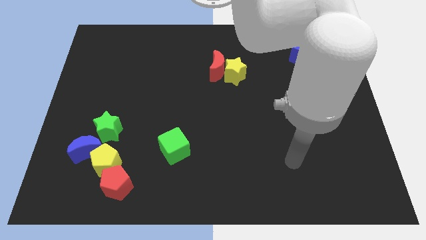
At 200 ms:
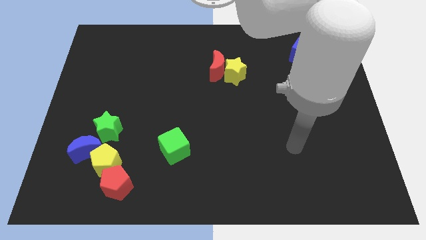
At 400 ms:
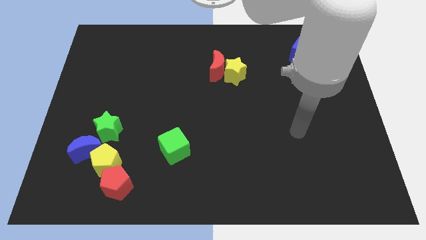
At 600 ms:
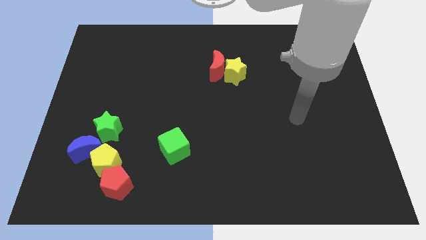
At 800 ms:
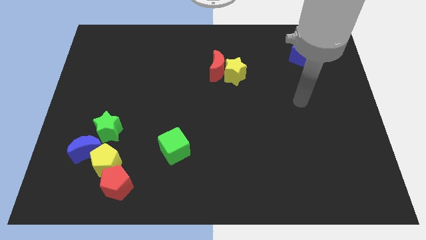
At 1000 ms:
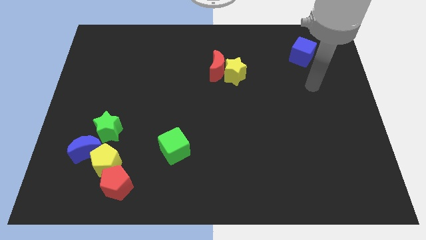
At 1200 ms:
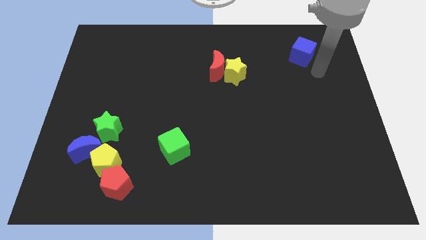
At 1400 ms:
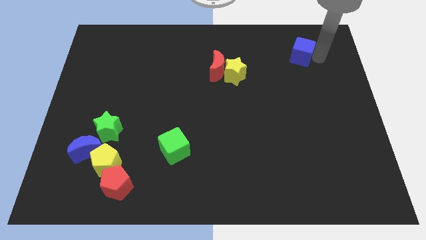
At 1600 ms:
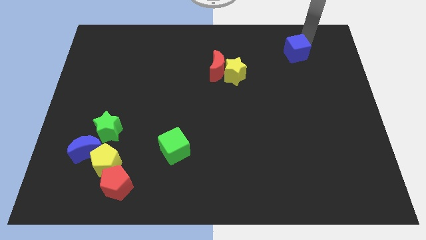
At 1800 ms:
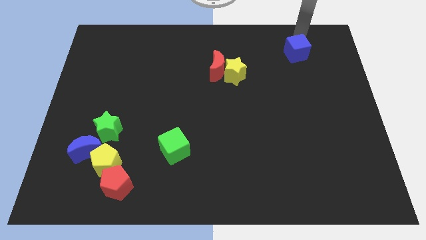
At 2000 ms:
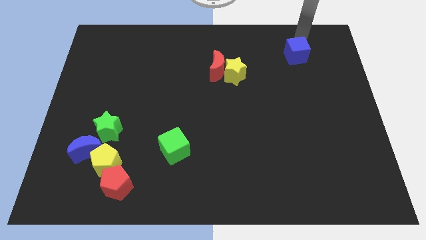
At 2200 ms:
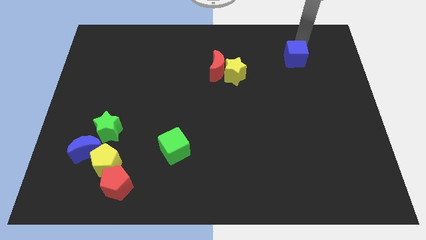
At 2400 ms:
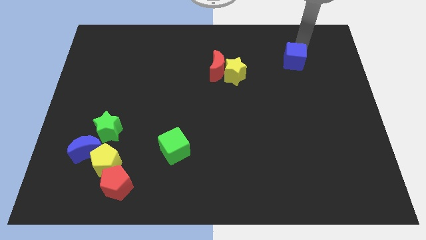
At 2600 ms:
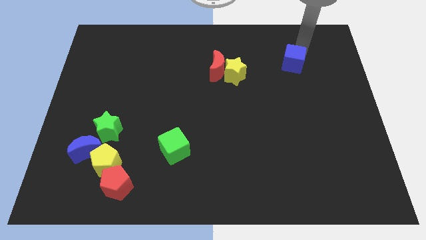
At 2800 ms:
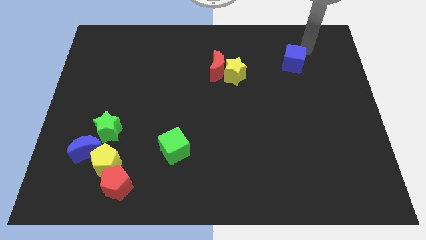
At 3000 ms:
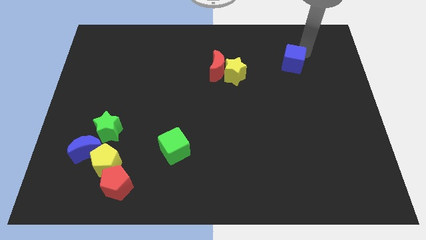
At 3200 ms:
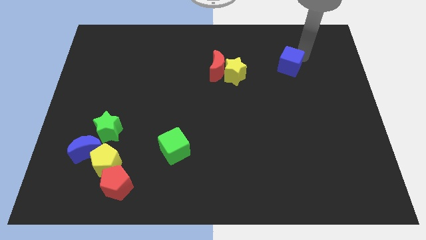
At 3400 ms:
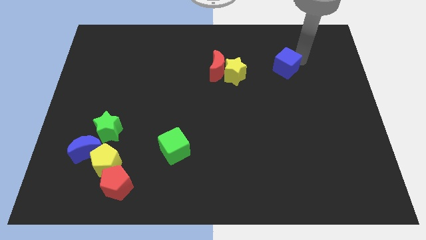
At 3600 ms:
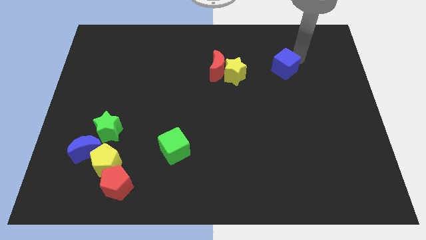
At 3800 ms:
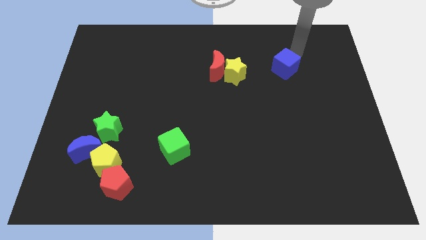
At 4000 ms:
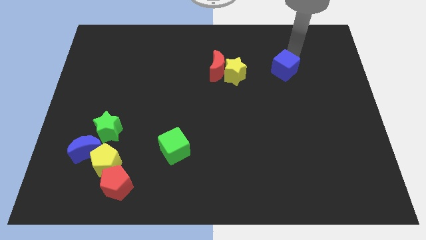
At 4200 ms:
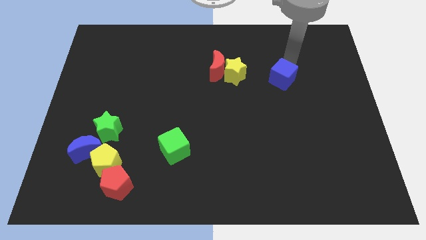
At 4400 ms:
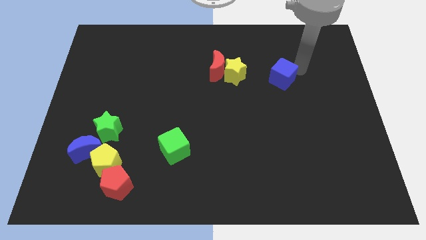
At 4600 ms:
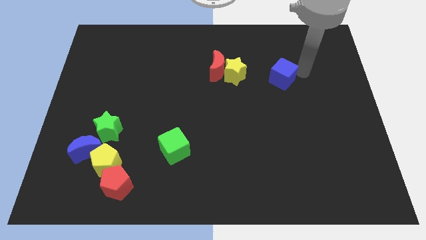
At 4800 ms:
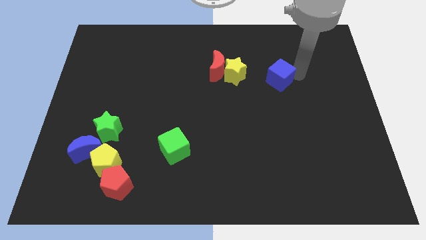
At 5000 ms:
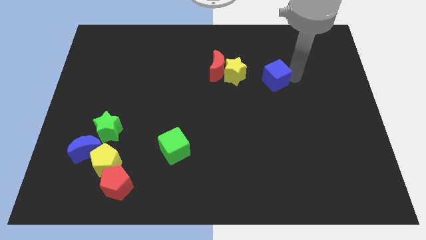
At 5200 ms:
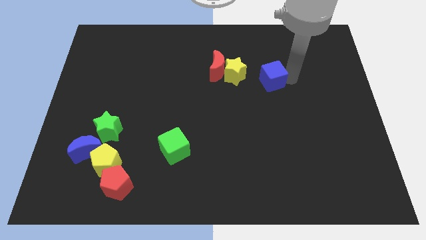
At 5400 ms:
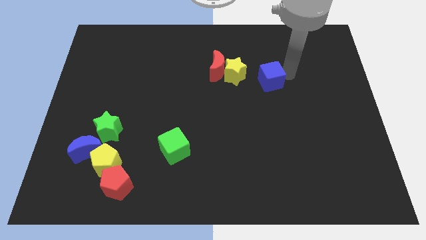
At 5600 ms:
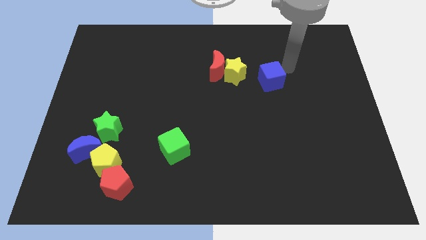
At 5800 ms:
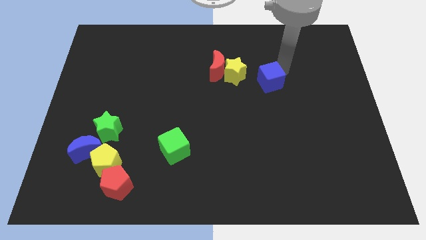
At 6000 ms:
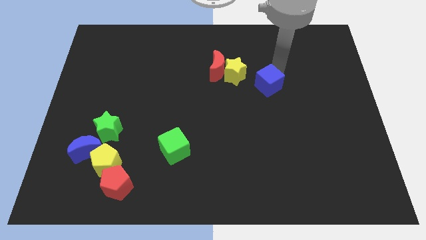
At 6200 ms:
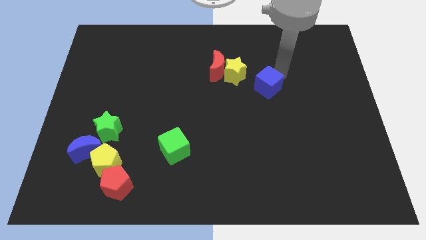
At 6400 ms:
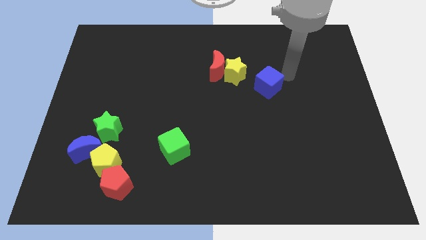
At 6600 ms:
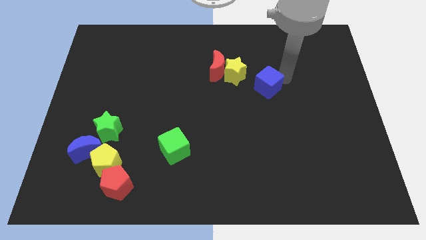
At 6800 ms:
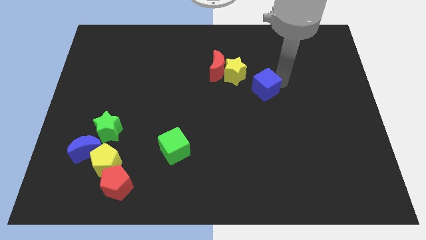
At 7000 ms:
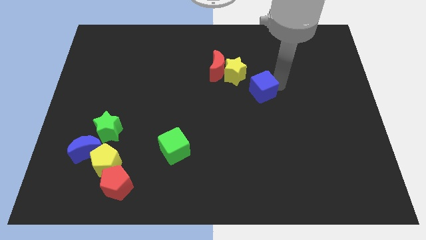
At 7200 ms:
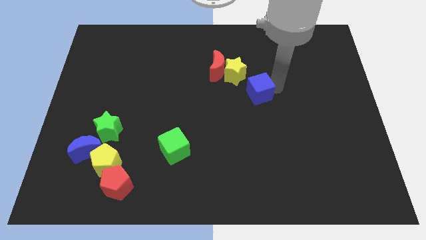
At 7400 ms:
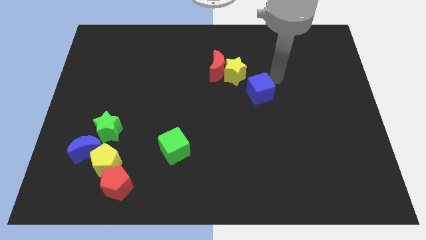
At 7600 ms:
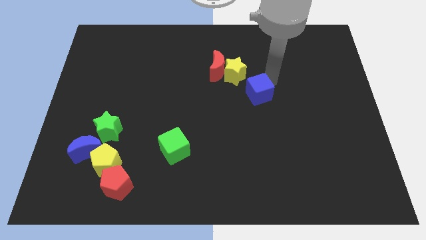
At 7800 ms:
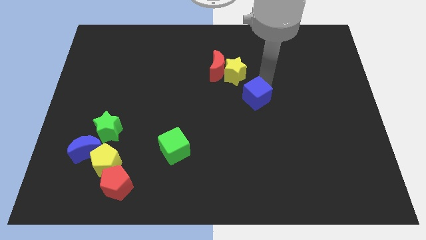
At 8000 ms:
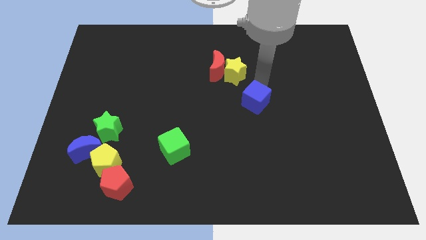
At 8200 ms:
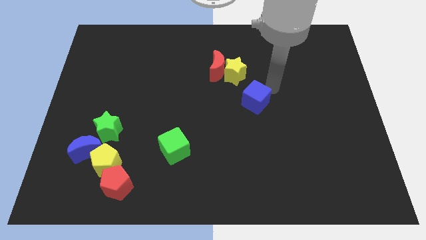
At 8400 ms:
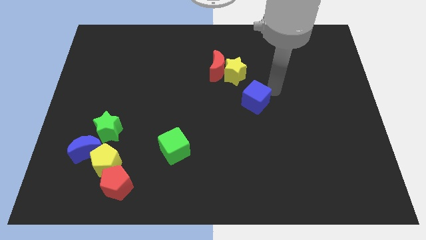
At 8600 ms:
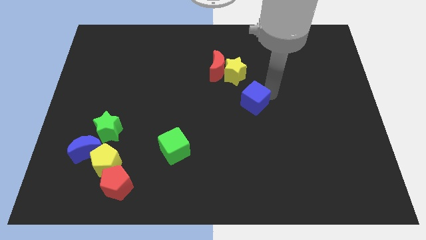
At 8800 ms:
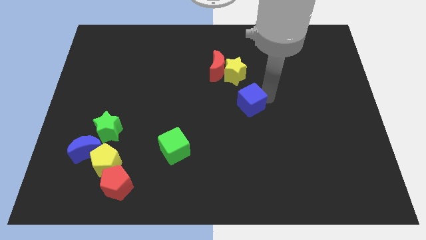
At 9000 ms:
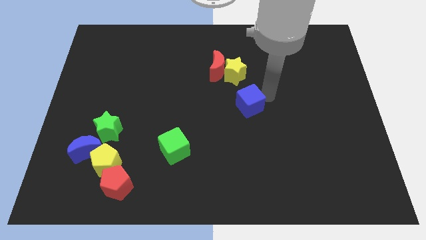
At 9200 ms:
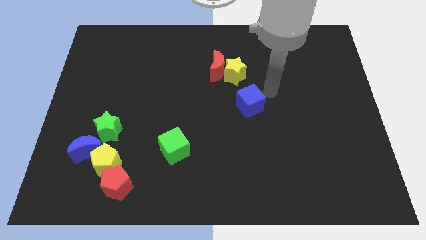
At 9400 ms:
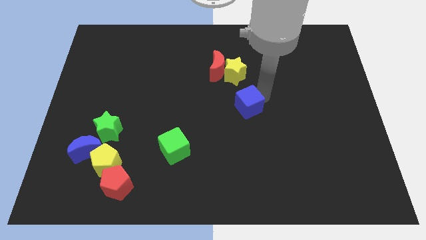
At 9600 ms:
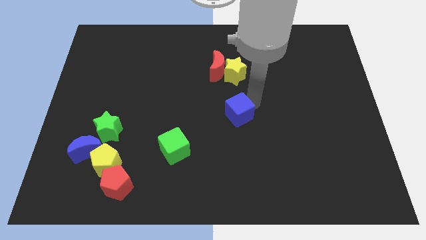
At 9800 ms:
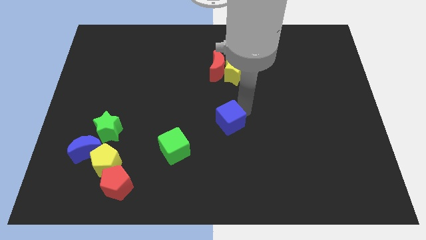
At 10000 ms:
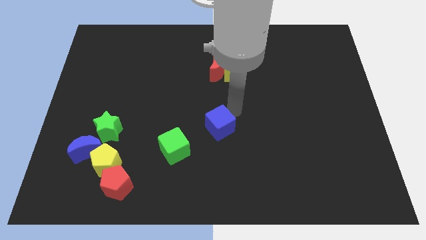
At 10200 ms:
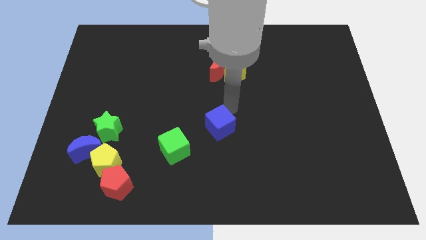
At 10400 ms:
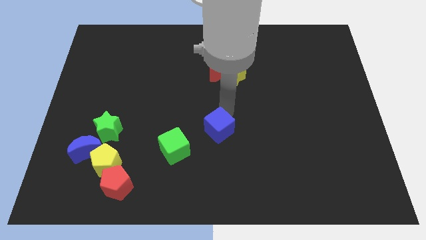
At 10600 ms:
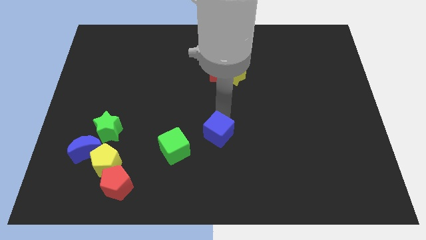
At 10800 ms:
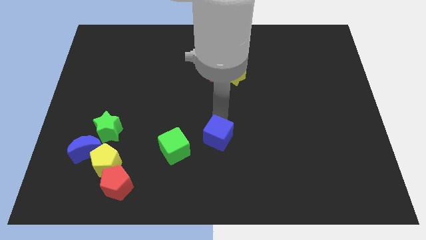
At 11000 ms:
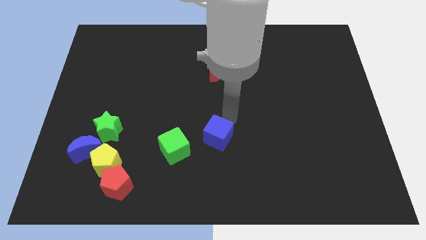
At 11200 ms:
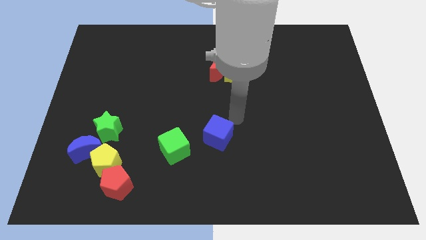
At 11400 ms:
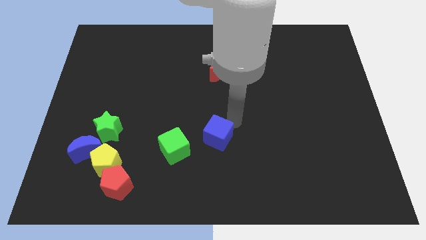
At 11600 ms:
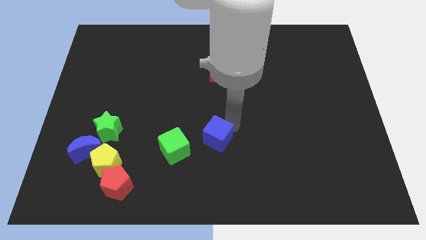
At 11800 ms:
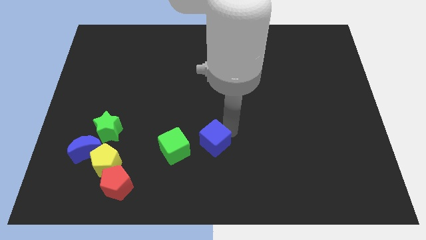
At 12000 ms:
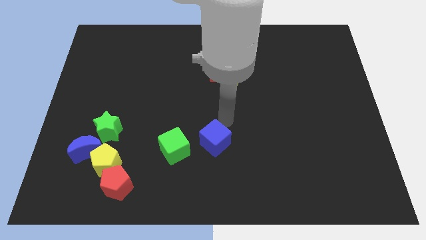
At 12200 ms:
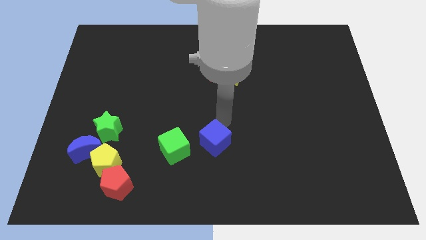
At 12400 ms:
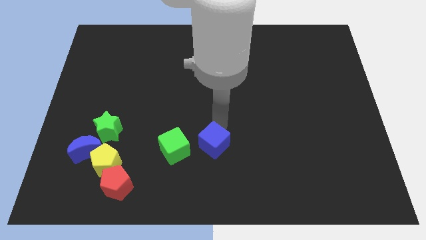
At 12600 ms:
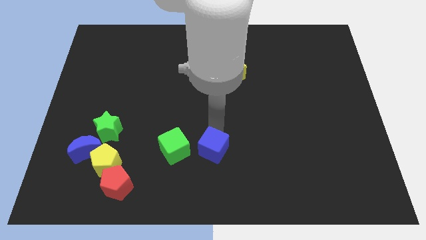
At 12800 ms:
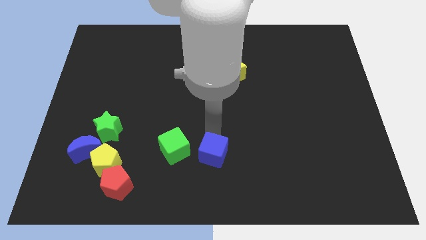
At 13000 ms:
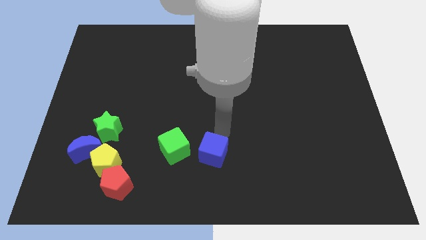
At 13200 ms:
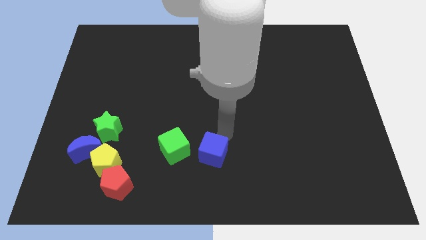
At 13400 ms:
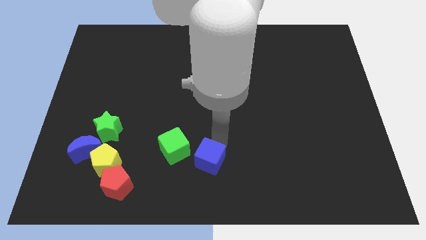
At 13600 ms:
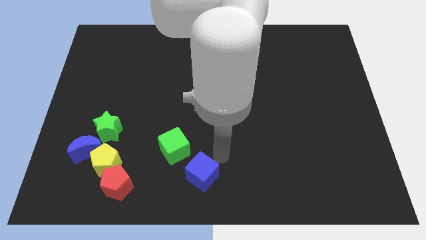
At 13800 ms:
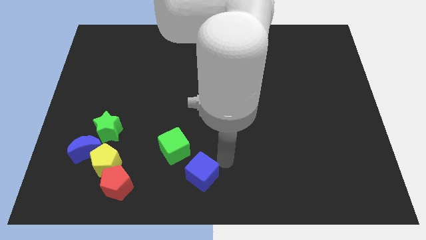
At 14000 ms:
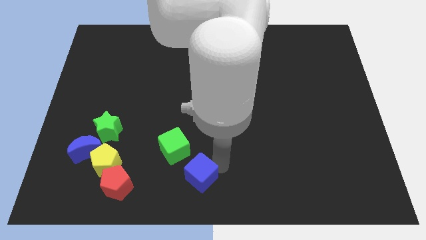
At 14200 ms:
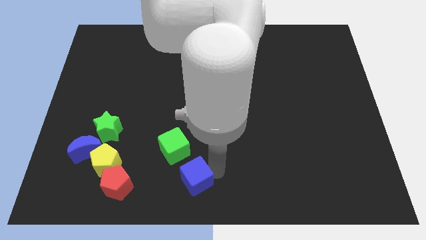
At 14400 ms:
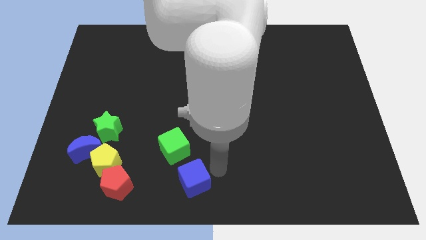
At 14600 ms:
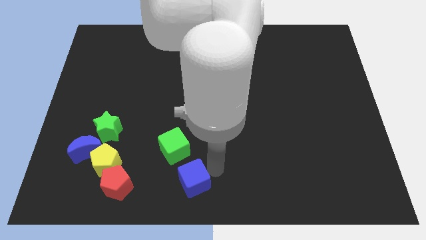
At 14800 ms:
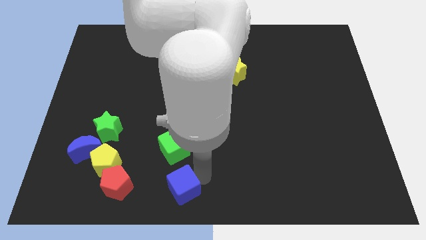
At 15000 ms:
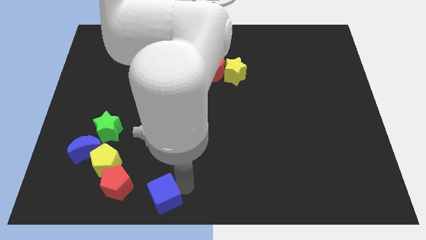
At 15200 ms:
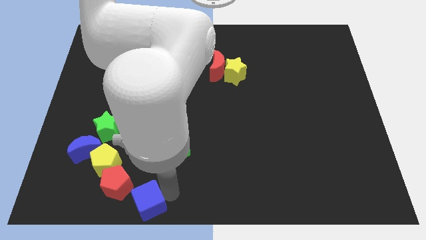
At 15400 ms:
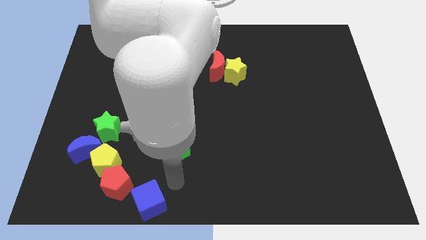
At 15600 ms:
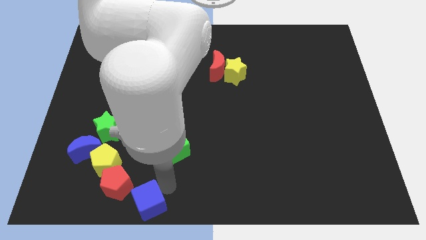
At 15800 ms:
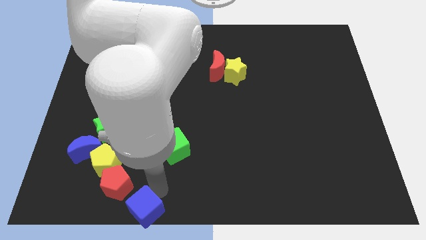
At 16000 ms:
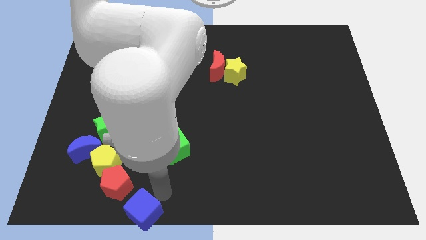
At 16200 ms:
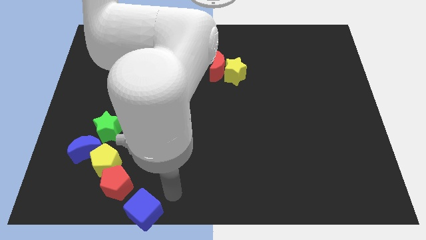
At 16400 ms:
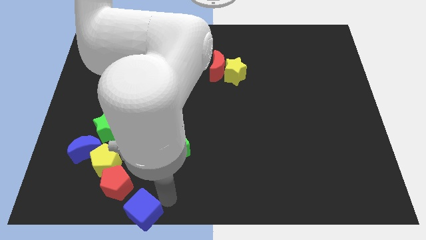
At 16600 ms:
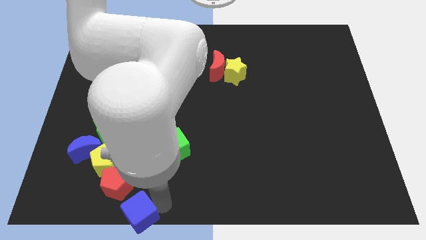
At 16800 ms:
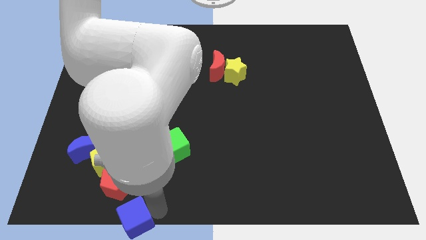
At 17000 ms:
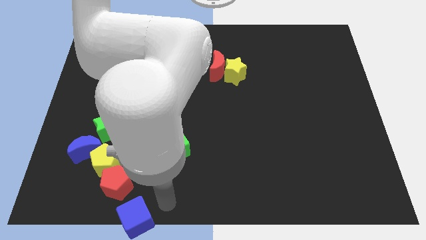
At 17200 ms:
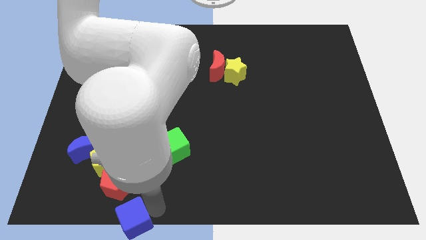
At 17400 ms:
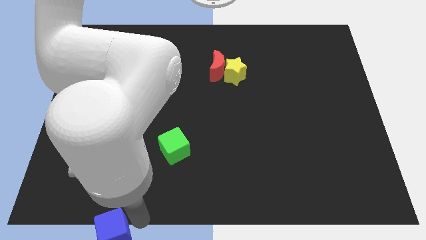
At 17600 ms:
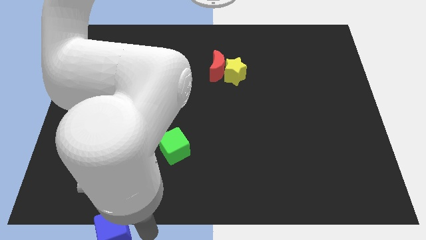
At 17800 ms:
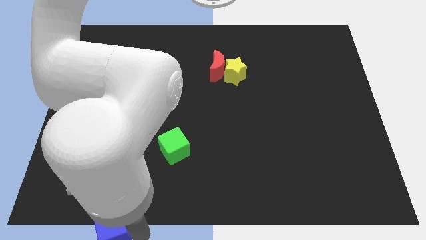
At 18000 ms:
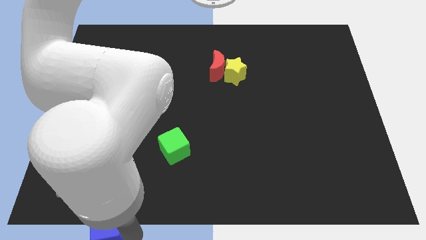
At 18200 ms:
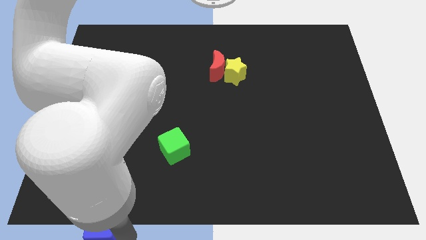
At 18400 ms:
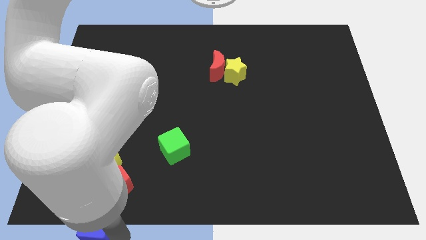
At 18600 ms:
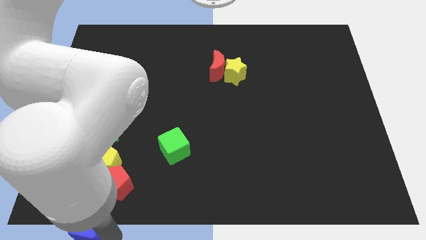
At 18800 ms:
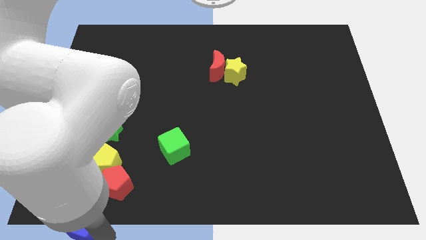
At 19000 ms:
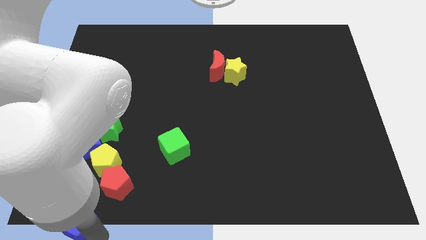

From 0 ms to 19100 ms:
push the blue cube to the lower left corner
